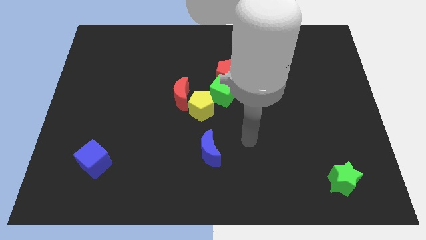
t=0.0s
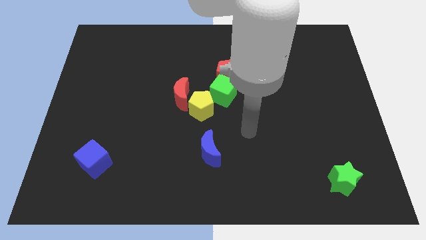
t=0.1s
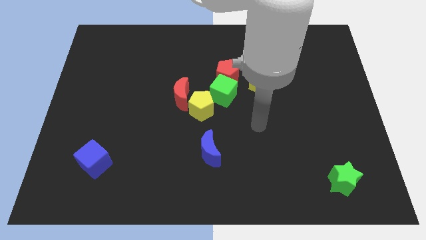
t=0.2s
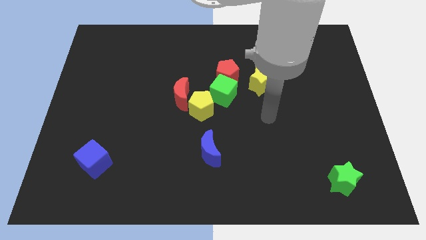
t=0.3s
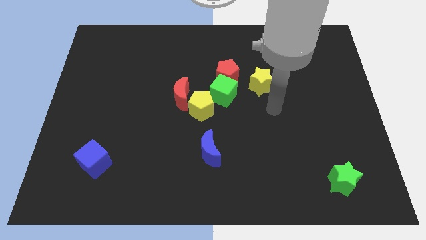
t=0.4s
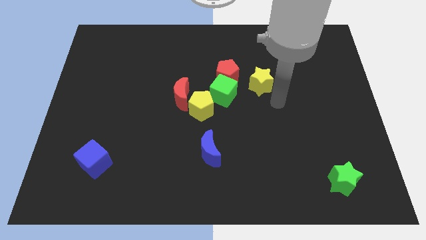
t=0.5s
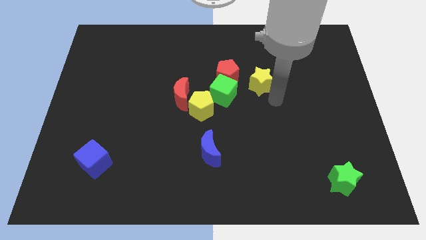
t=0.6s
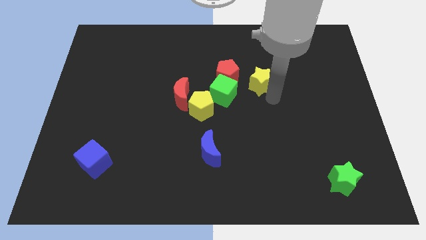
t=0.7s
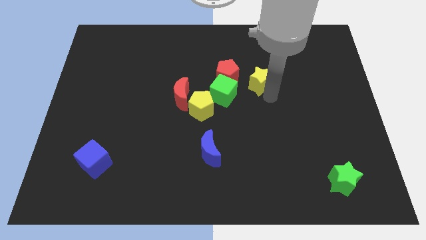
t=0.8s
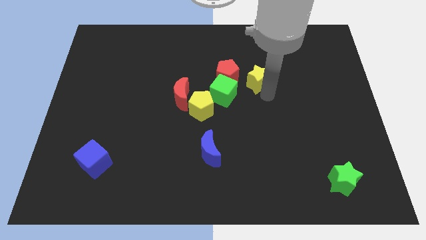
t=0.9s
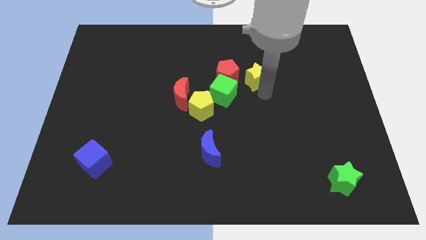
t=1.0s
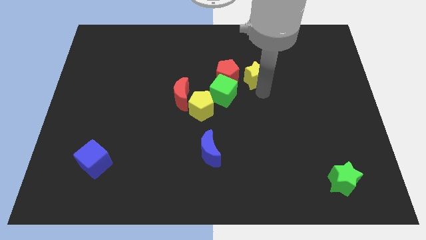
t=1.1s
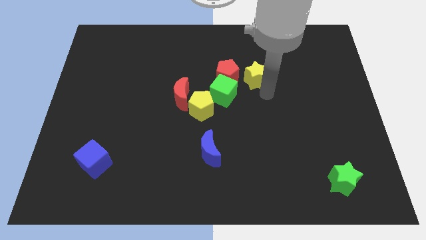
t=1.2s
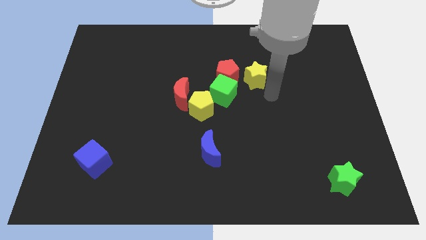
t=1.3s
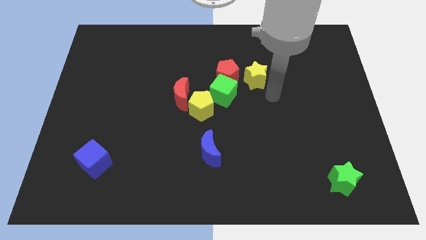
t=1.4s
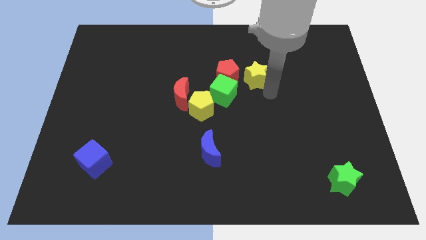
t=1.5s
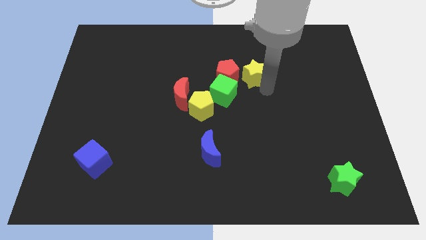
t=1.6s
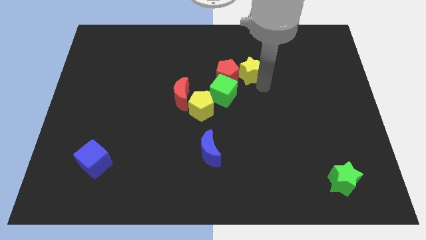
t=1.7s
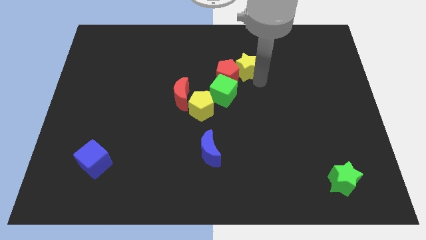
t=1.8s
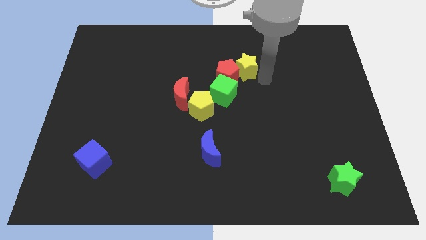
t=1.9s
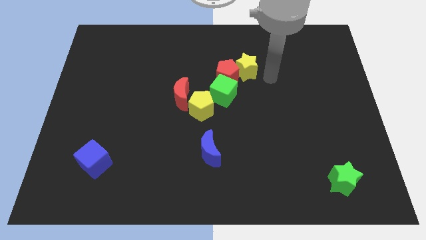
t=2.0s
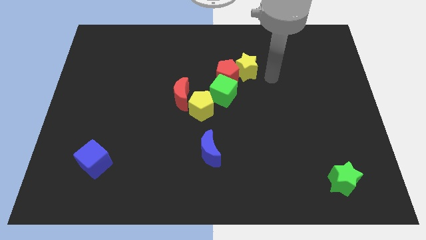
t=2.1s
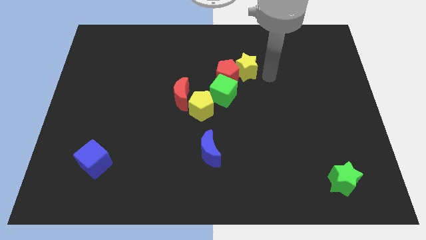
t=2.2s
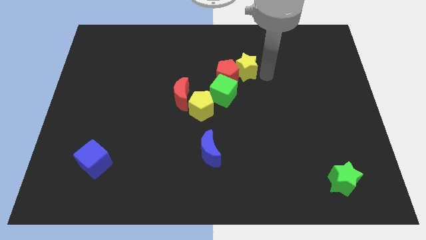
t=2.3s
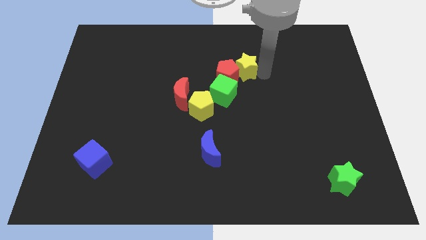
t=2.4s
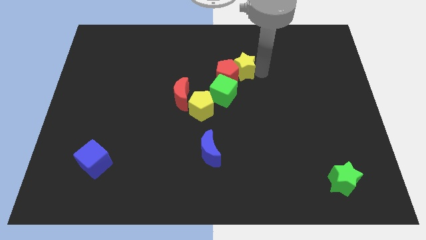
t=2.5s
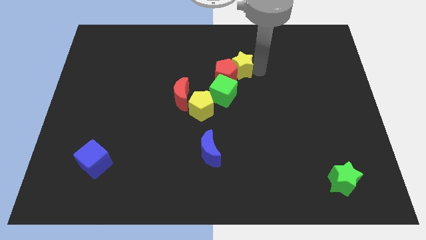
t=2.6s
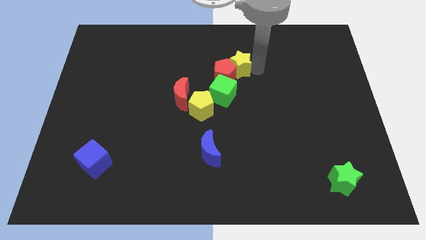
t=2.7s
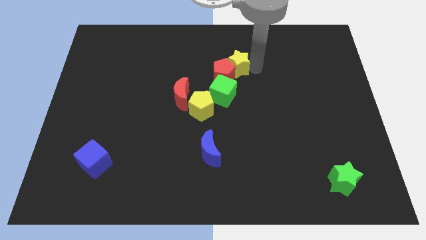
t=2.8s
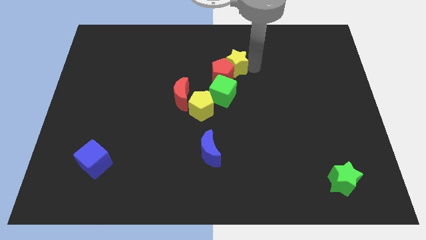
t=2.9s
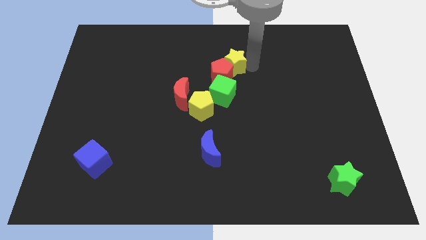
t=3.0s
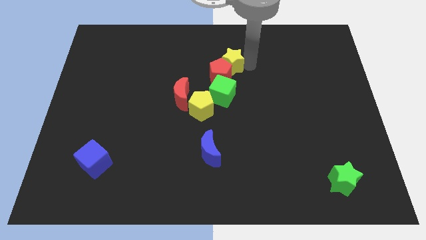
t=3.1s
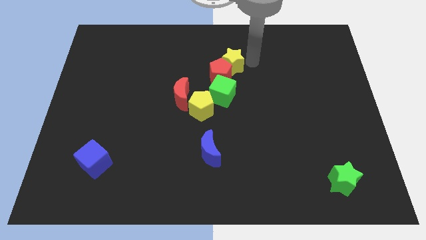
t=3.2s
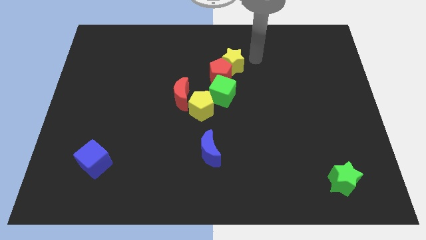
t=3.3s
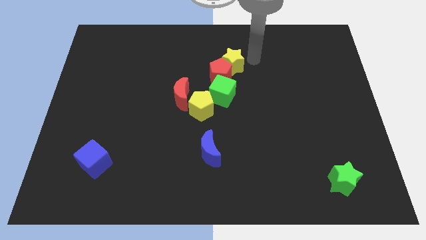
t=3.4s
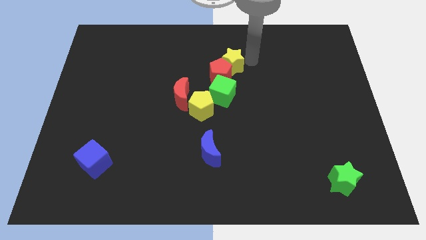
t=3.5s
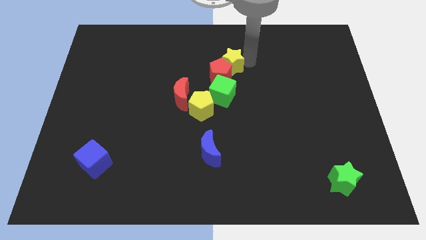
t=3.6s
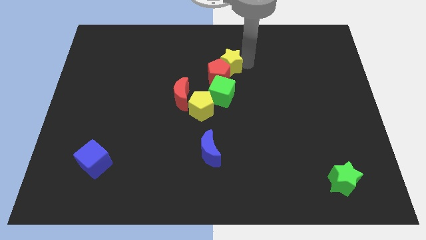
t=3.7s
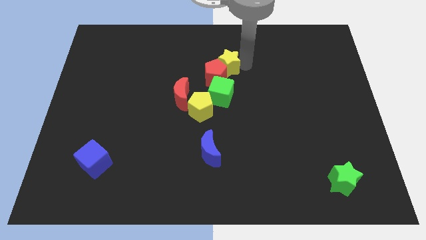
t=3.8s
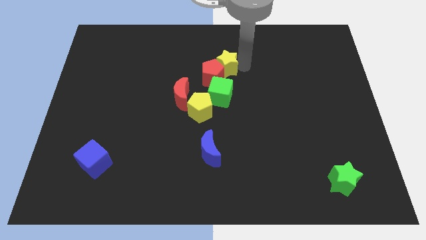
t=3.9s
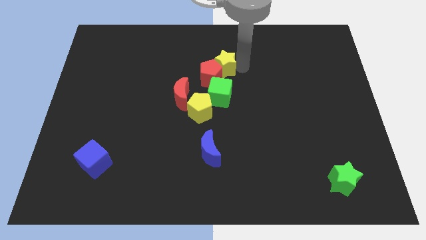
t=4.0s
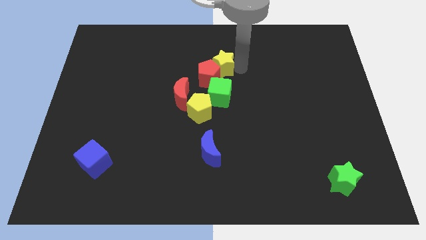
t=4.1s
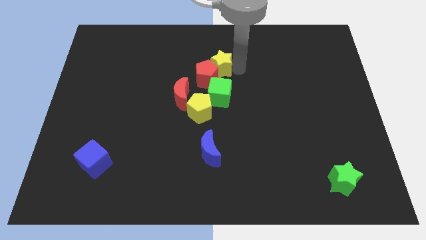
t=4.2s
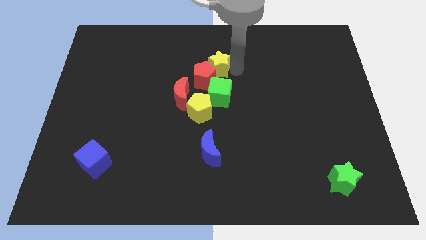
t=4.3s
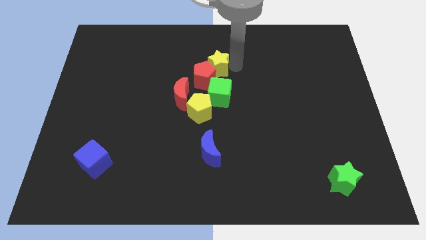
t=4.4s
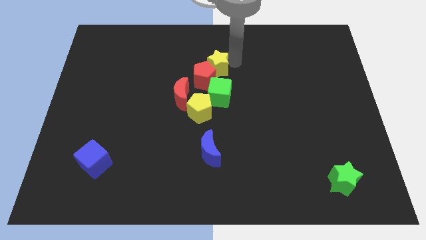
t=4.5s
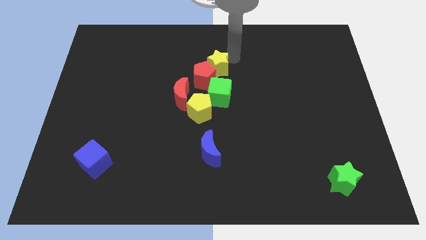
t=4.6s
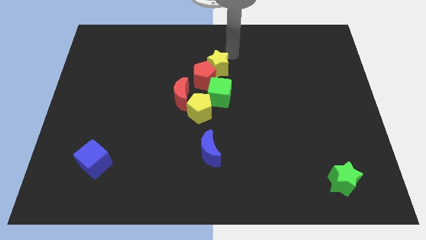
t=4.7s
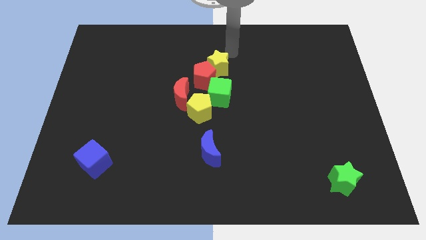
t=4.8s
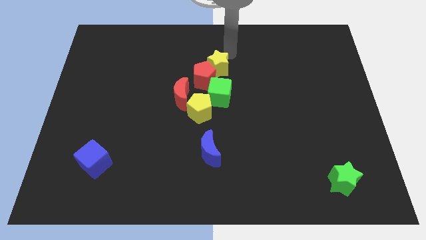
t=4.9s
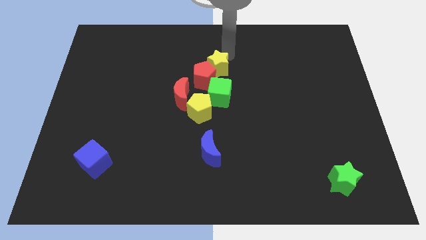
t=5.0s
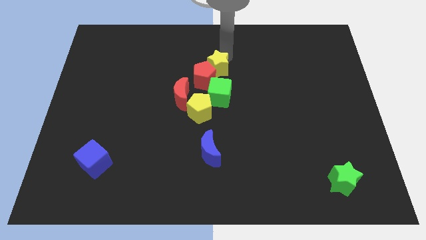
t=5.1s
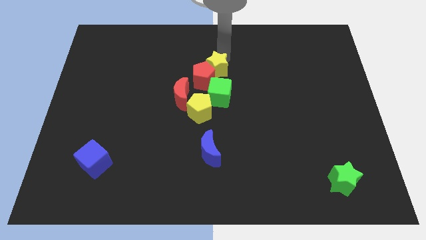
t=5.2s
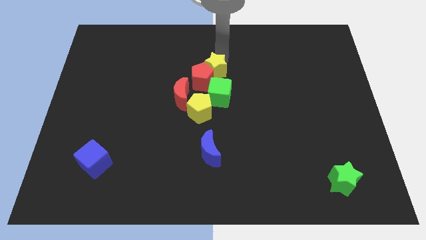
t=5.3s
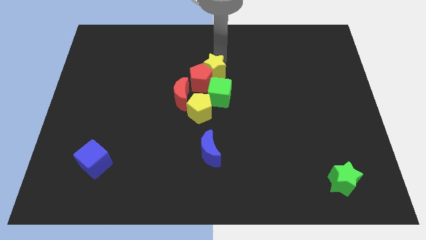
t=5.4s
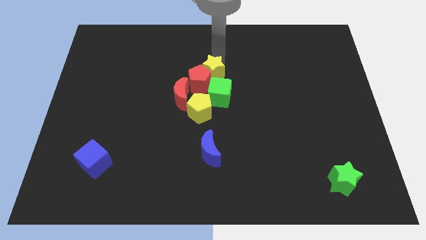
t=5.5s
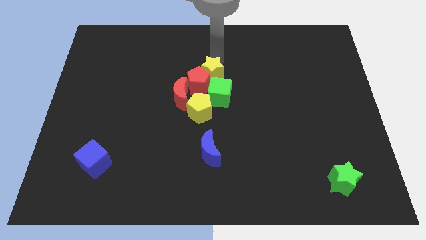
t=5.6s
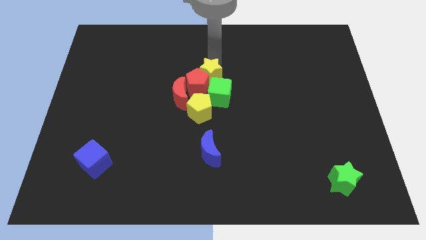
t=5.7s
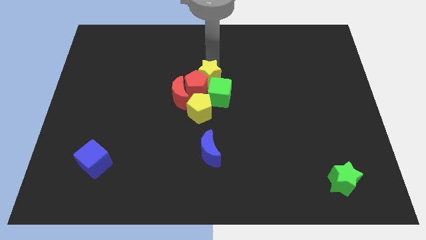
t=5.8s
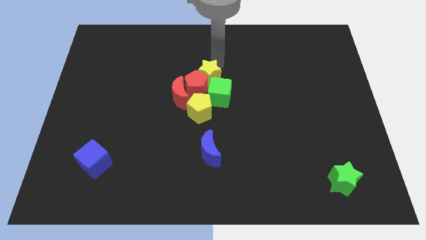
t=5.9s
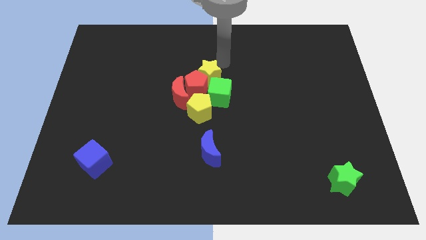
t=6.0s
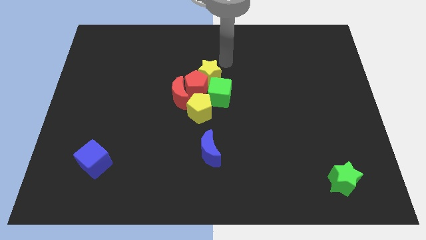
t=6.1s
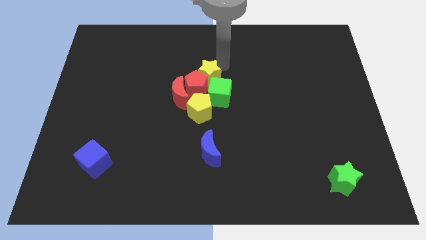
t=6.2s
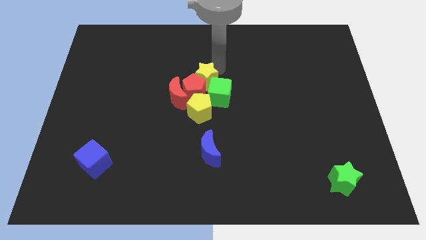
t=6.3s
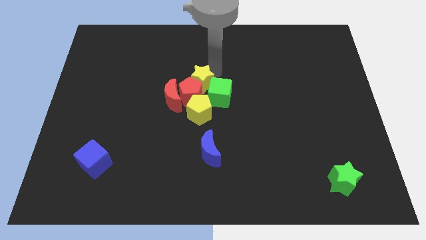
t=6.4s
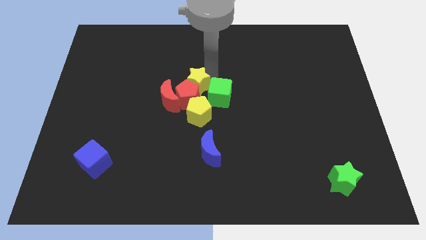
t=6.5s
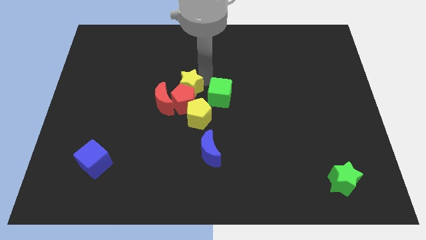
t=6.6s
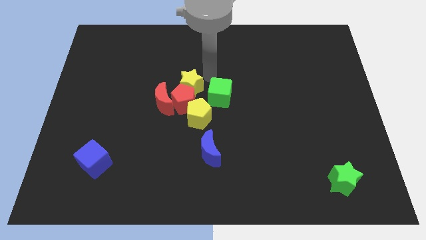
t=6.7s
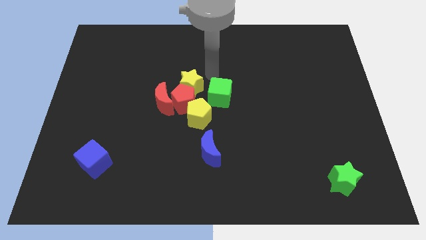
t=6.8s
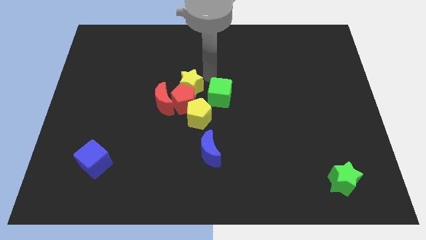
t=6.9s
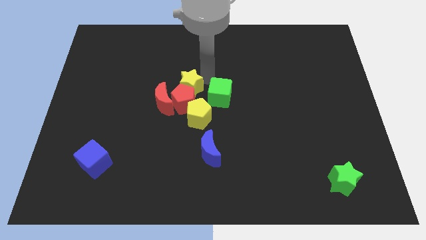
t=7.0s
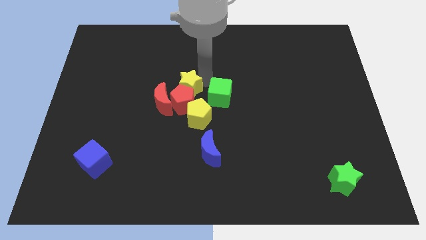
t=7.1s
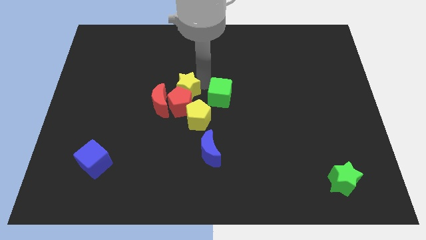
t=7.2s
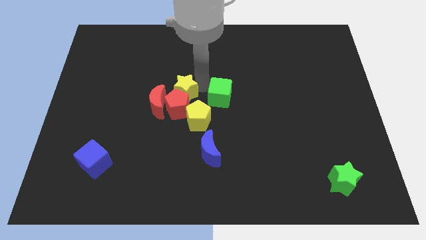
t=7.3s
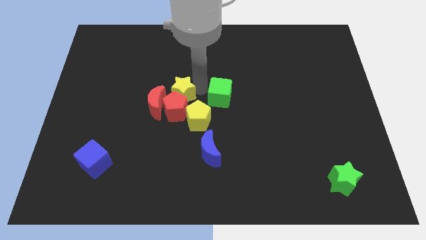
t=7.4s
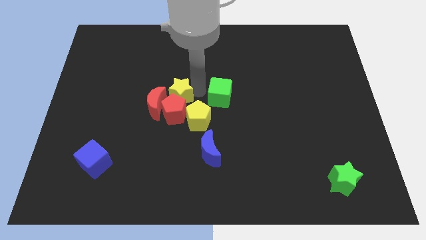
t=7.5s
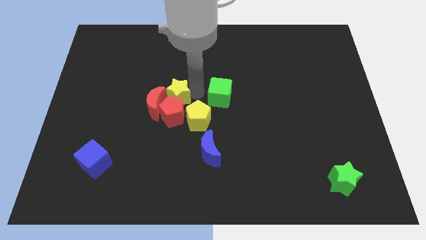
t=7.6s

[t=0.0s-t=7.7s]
put the yellow star next to the red moon
